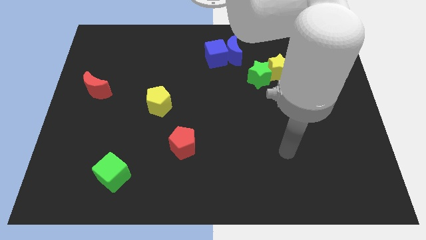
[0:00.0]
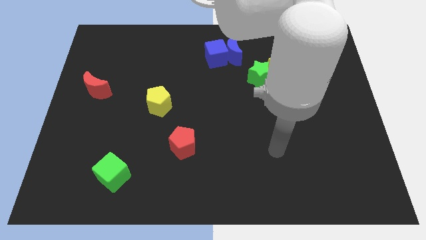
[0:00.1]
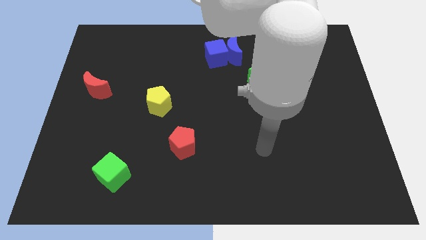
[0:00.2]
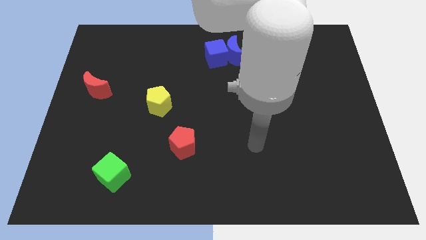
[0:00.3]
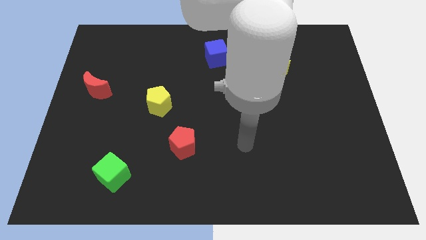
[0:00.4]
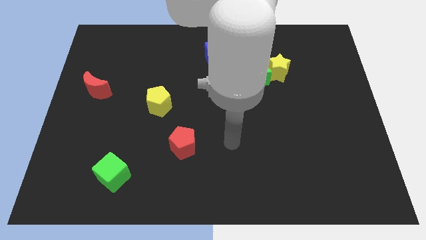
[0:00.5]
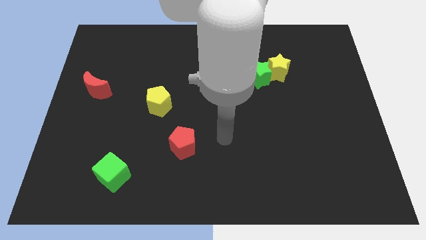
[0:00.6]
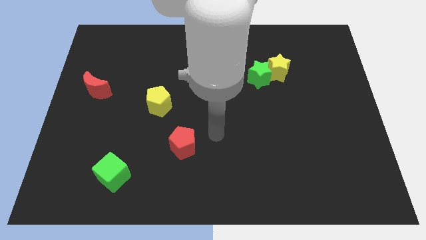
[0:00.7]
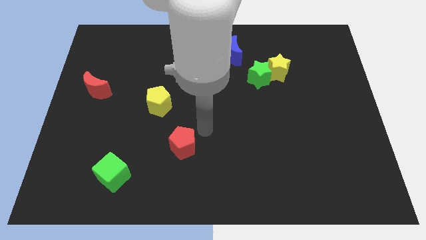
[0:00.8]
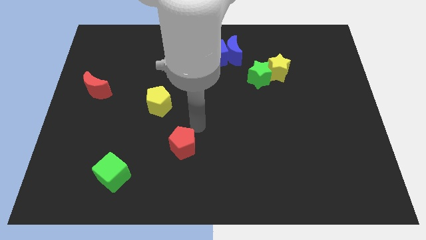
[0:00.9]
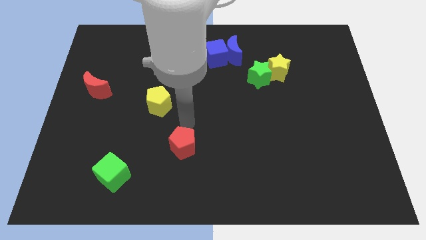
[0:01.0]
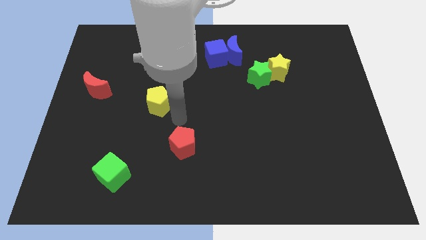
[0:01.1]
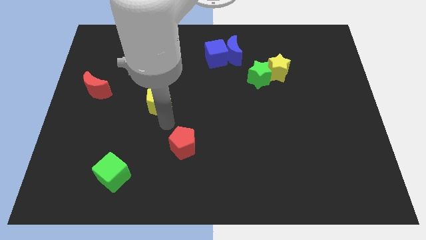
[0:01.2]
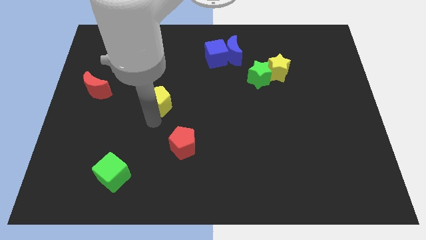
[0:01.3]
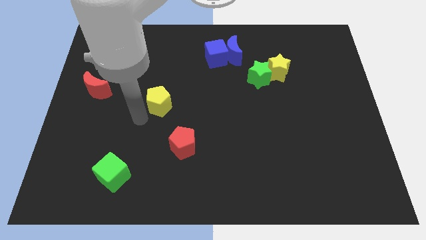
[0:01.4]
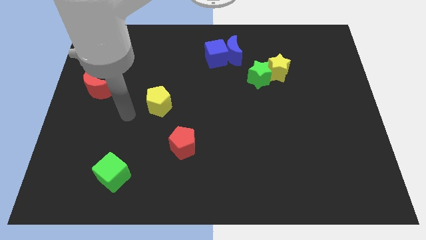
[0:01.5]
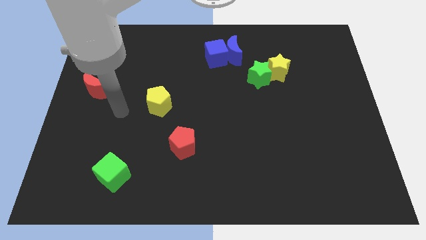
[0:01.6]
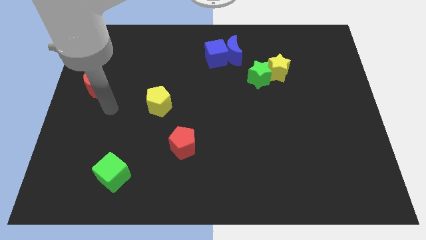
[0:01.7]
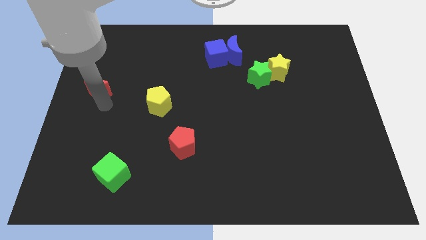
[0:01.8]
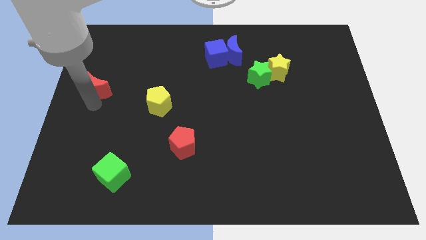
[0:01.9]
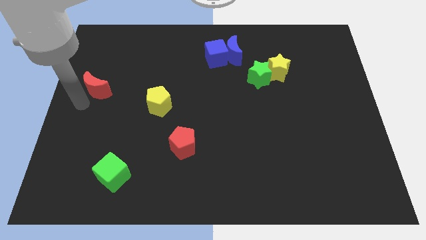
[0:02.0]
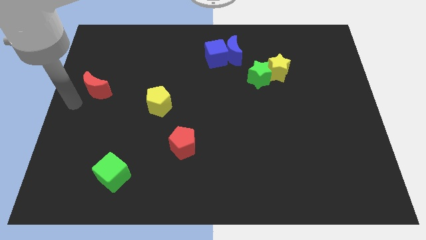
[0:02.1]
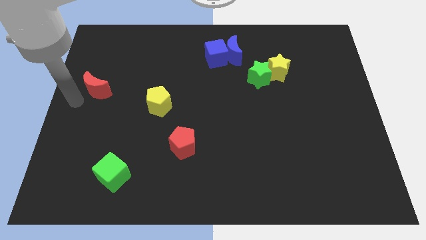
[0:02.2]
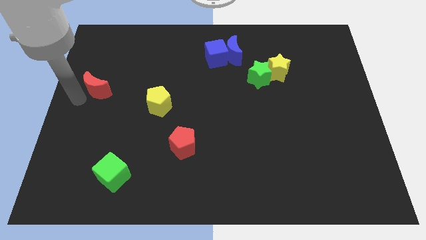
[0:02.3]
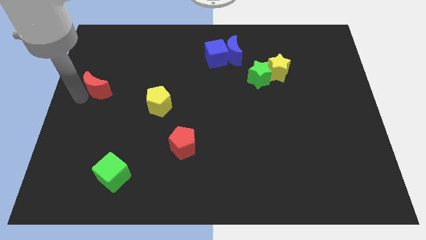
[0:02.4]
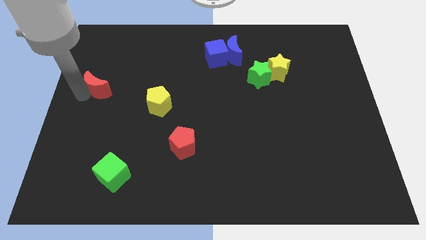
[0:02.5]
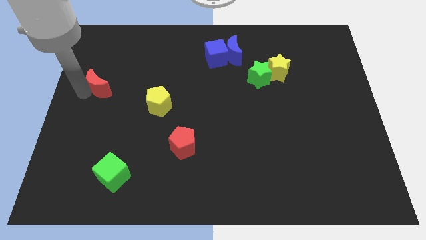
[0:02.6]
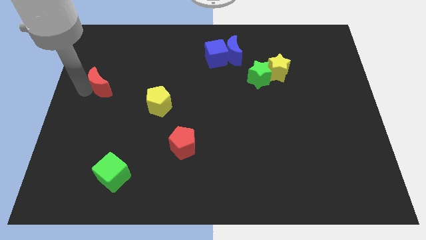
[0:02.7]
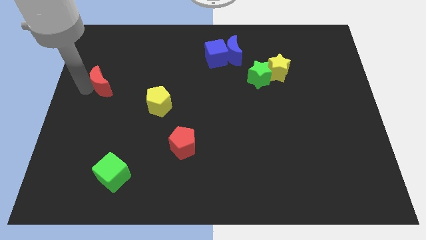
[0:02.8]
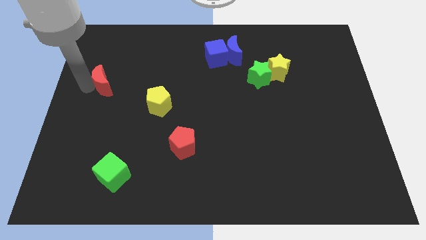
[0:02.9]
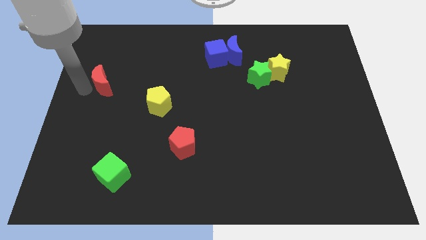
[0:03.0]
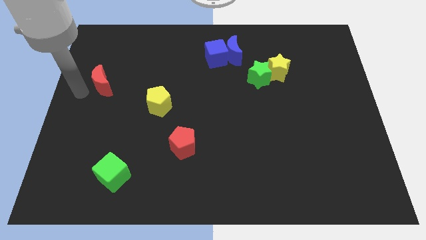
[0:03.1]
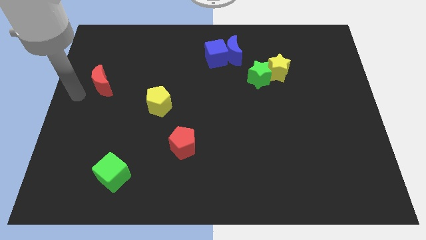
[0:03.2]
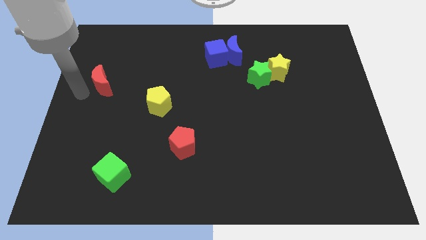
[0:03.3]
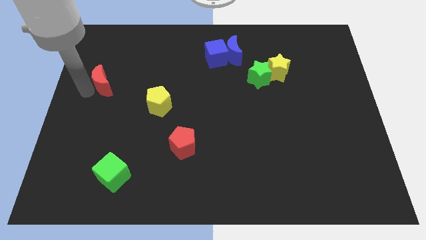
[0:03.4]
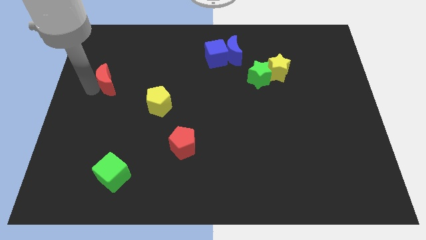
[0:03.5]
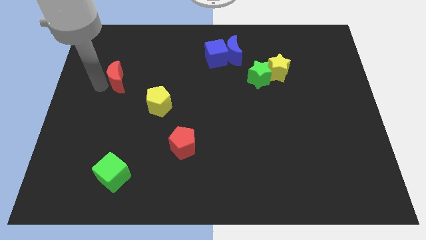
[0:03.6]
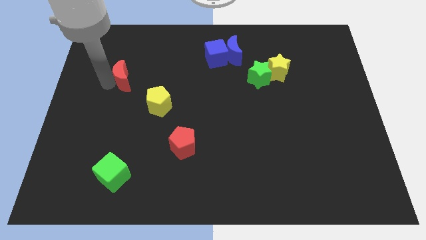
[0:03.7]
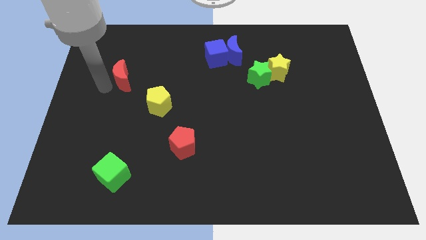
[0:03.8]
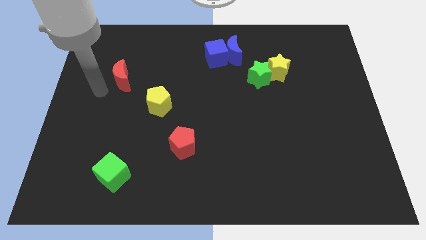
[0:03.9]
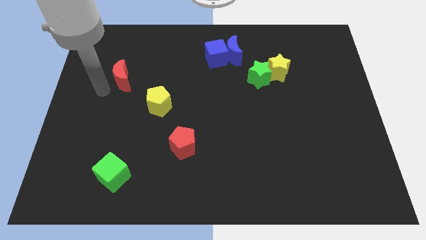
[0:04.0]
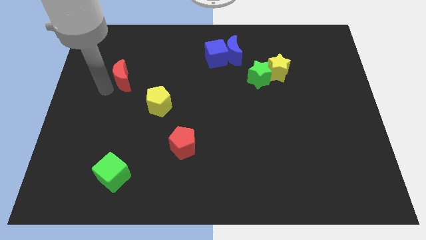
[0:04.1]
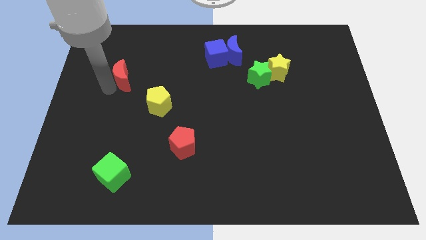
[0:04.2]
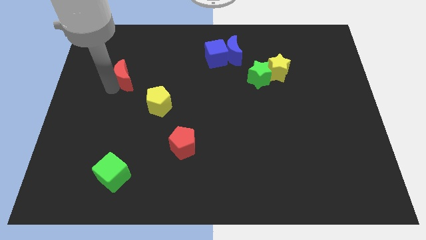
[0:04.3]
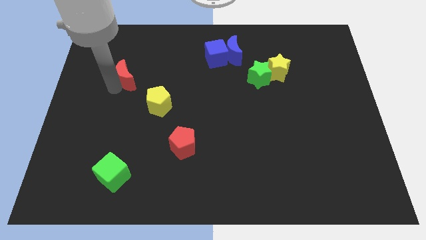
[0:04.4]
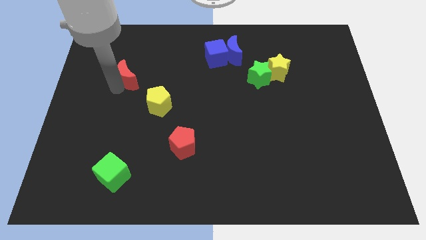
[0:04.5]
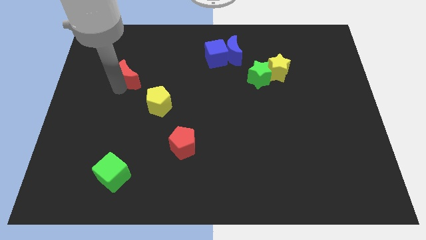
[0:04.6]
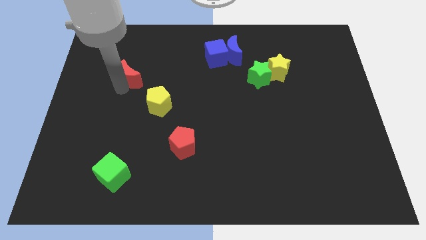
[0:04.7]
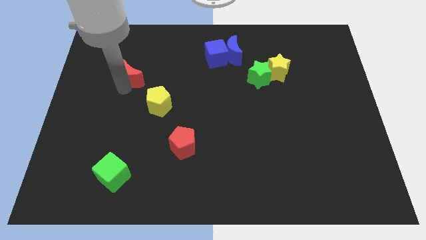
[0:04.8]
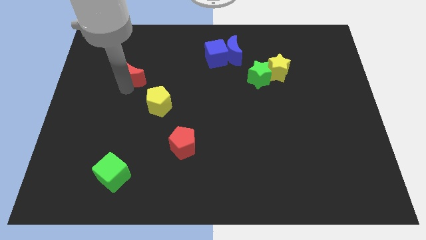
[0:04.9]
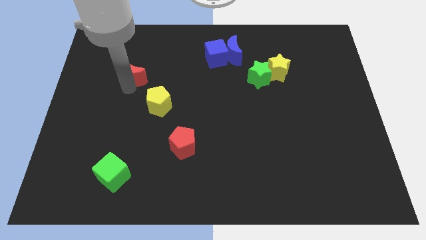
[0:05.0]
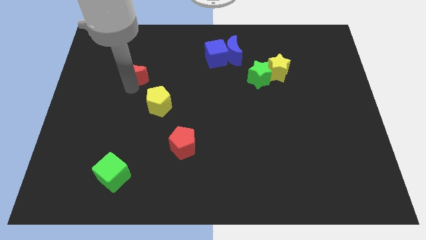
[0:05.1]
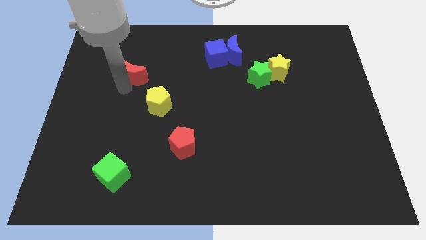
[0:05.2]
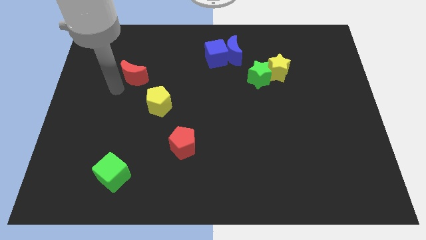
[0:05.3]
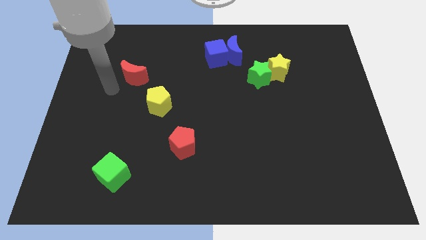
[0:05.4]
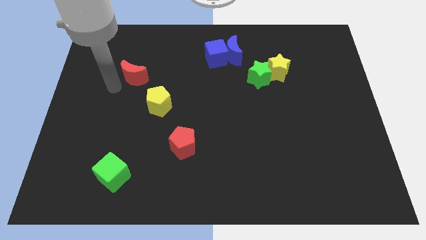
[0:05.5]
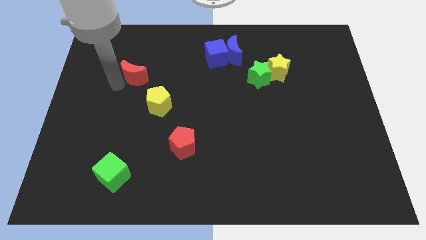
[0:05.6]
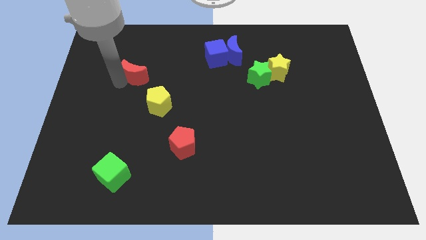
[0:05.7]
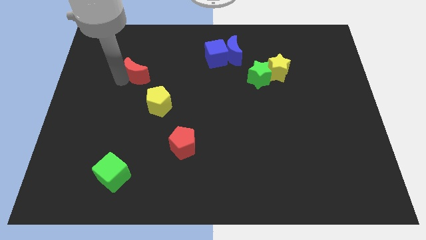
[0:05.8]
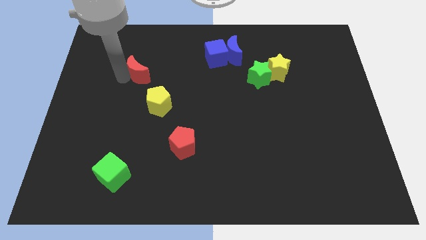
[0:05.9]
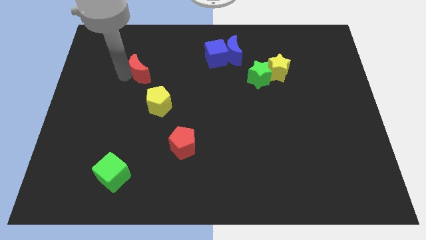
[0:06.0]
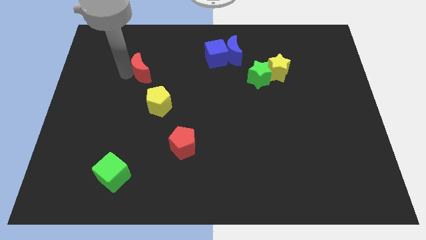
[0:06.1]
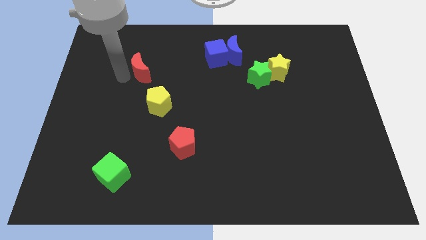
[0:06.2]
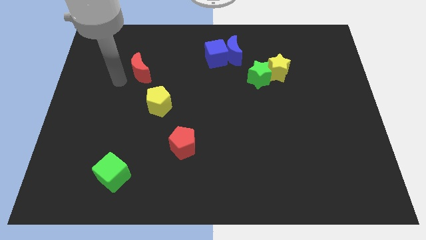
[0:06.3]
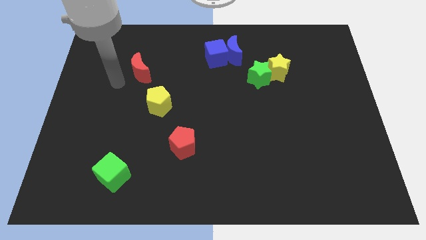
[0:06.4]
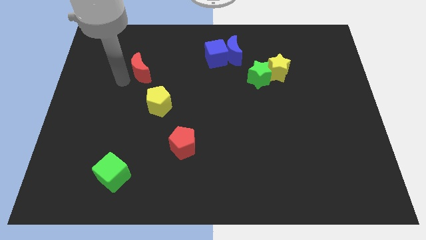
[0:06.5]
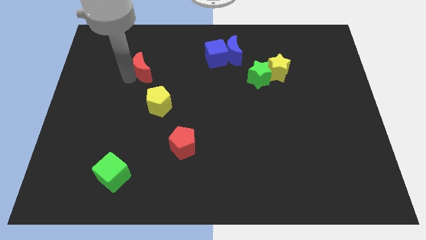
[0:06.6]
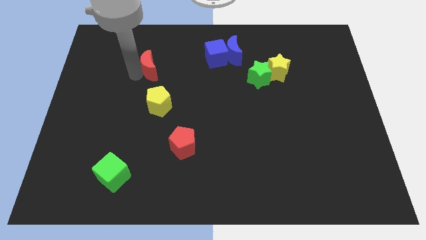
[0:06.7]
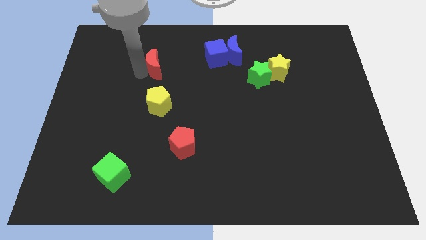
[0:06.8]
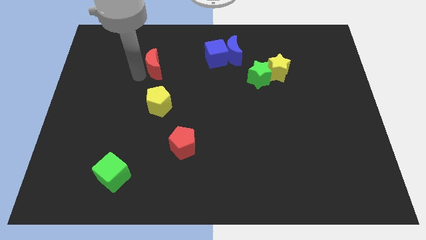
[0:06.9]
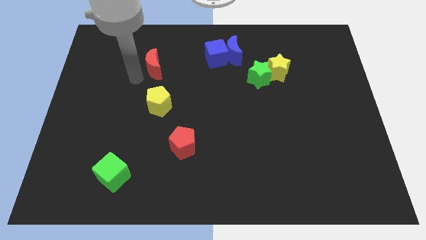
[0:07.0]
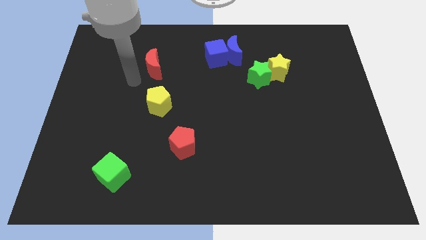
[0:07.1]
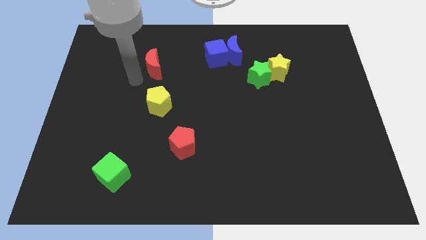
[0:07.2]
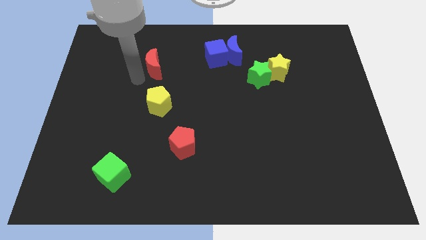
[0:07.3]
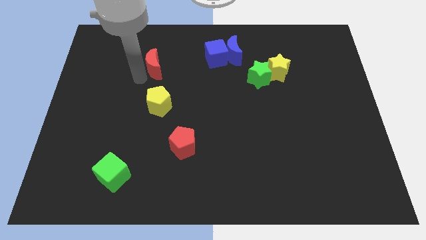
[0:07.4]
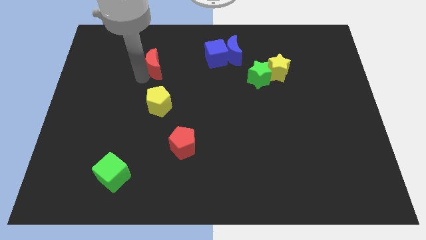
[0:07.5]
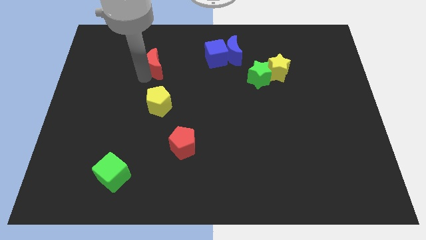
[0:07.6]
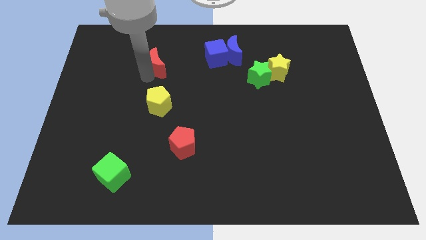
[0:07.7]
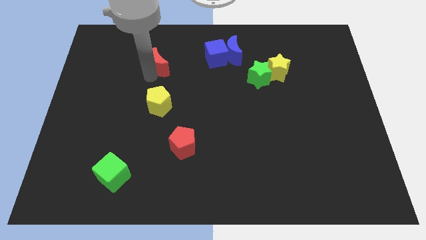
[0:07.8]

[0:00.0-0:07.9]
move the red moon to the left side of the blue cube
